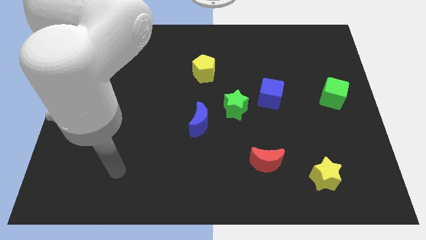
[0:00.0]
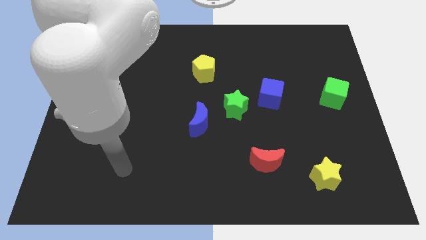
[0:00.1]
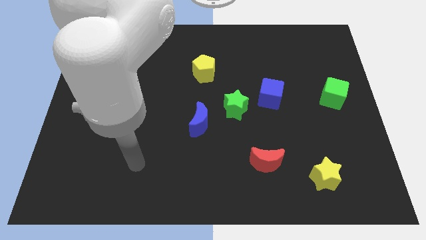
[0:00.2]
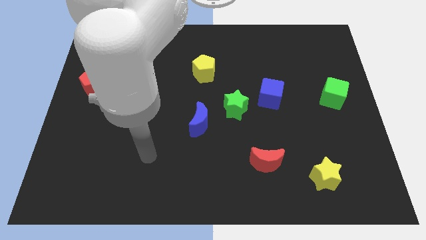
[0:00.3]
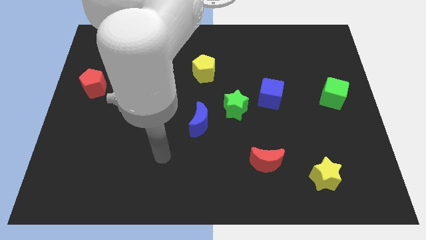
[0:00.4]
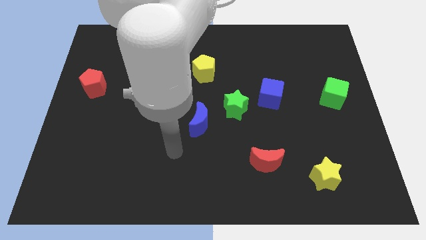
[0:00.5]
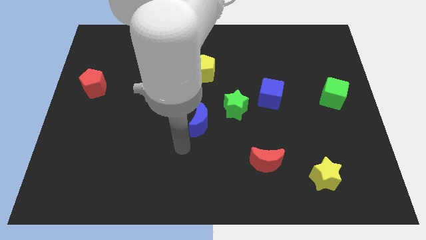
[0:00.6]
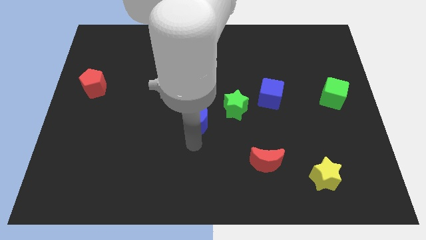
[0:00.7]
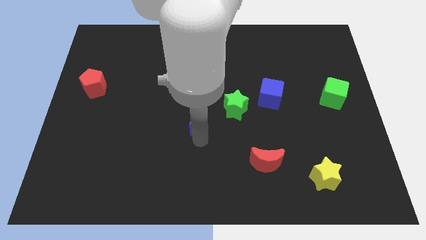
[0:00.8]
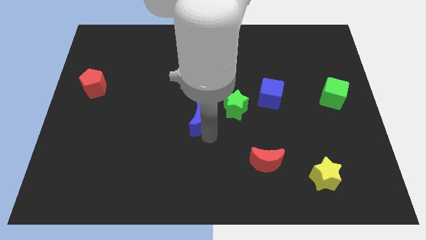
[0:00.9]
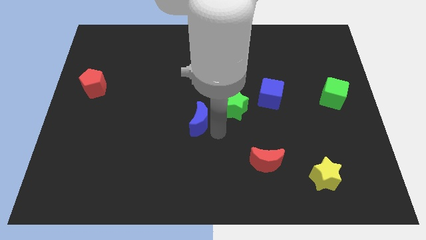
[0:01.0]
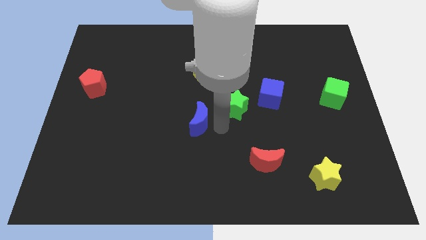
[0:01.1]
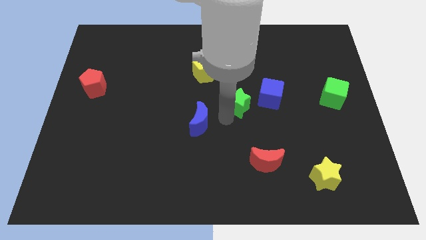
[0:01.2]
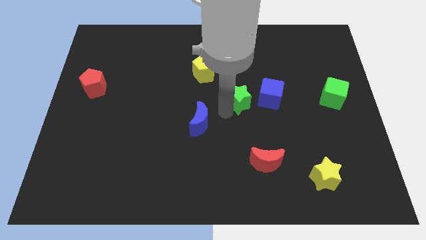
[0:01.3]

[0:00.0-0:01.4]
pull the blue moon apart from the green star

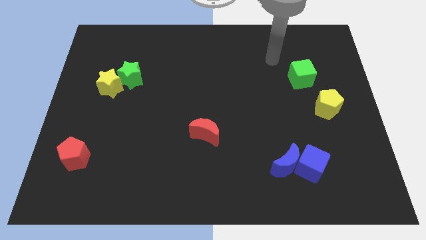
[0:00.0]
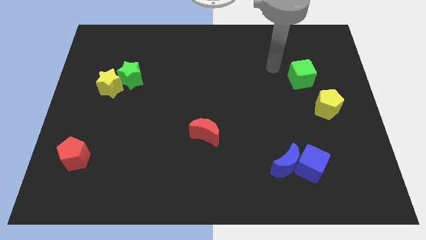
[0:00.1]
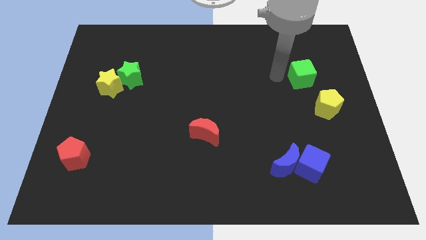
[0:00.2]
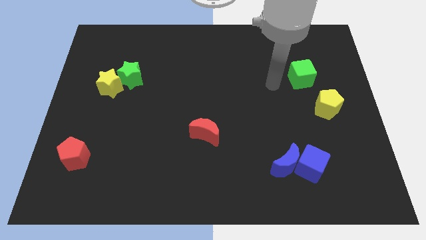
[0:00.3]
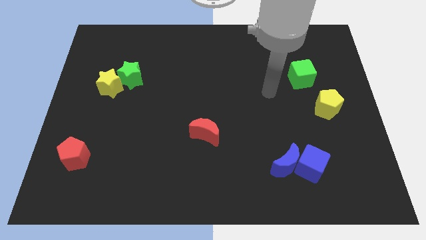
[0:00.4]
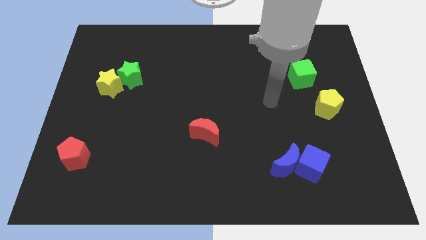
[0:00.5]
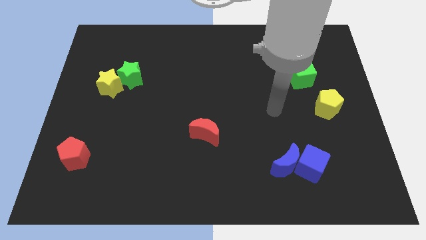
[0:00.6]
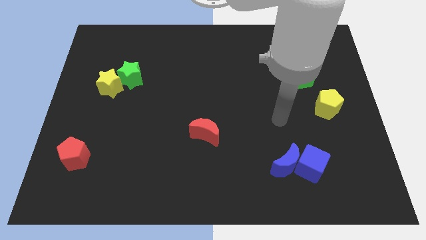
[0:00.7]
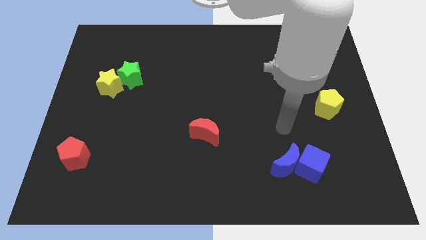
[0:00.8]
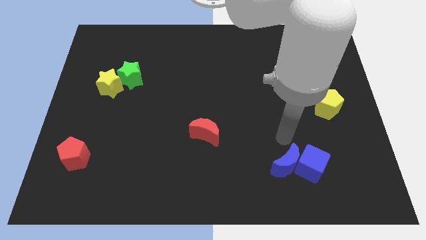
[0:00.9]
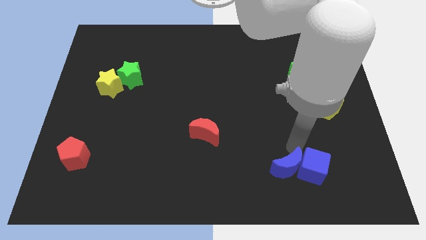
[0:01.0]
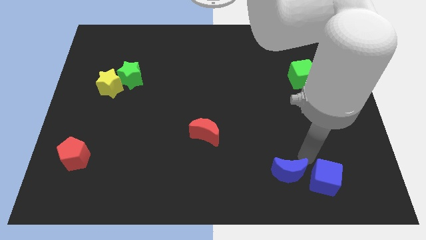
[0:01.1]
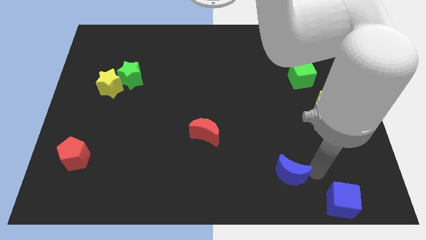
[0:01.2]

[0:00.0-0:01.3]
separate the blue moon from the blue cube

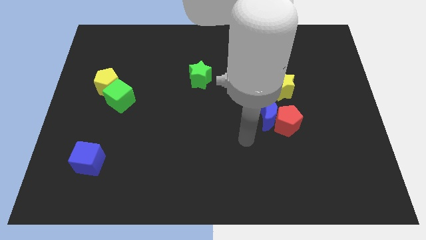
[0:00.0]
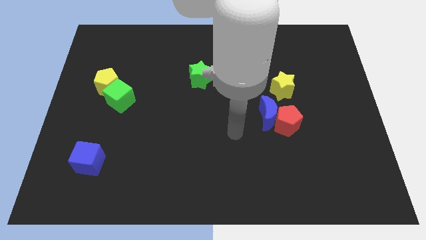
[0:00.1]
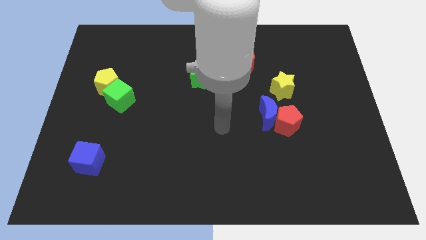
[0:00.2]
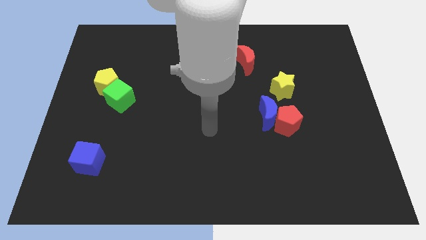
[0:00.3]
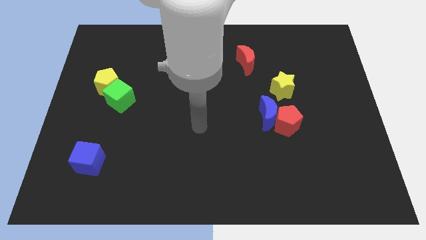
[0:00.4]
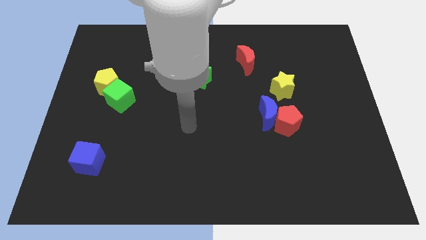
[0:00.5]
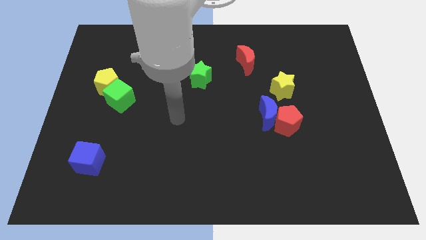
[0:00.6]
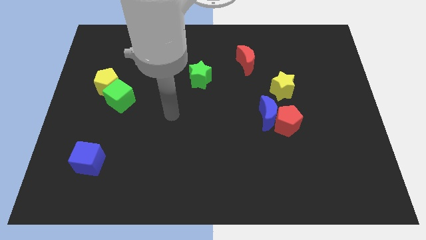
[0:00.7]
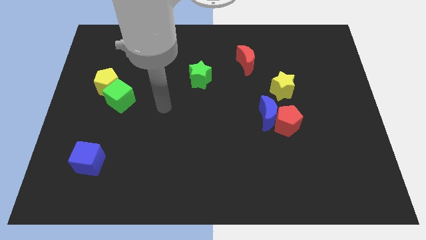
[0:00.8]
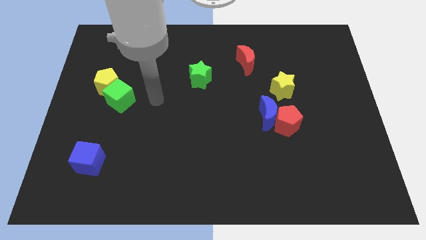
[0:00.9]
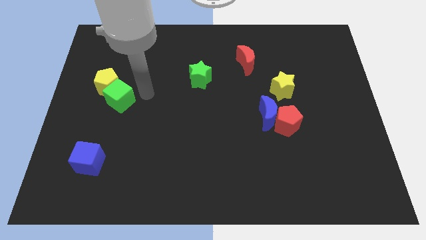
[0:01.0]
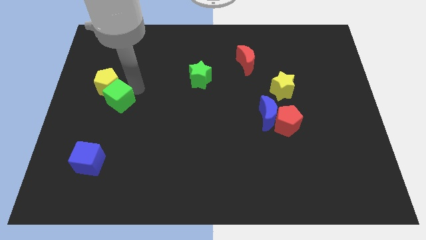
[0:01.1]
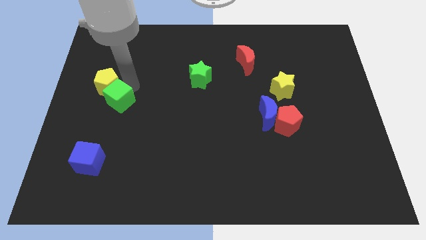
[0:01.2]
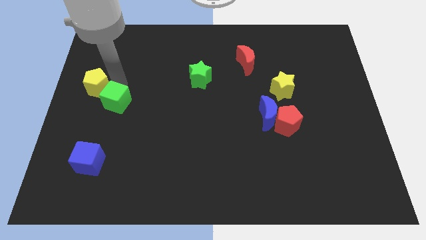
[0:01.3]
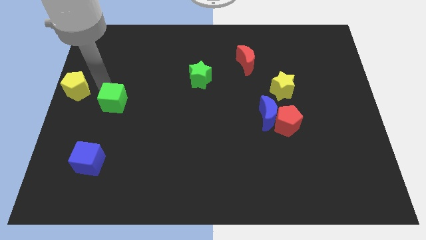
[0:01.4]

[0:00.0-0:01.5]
pull the green cube apart from the yellow pentagon

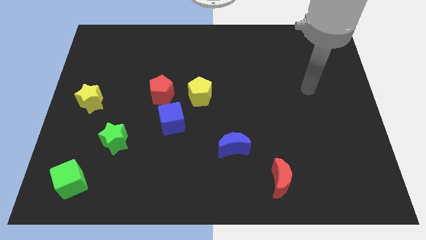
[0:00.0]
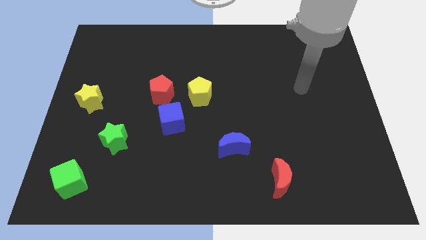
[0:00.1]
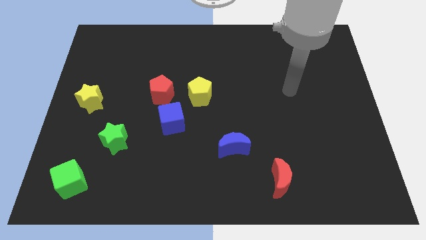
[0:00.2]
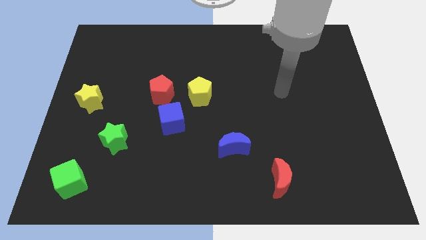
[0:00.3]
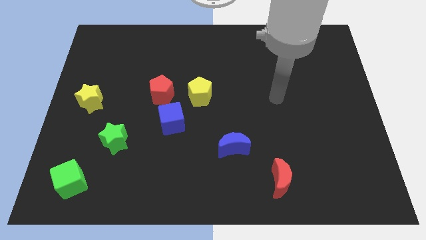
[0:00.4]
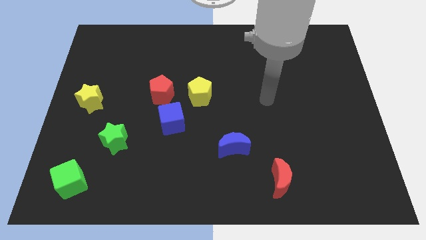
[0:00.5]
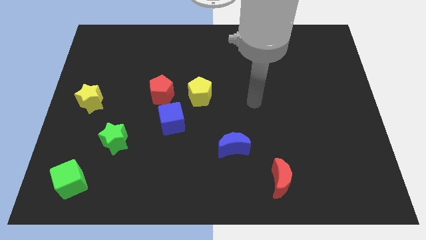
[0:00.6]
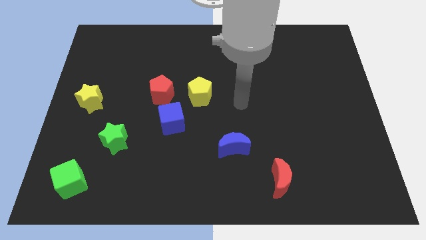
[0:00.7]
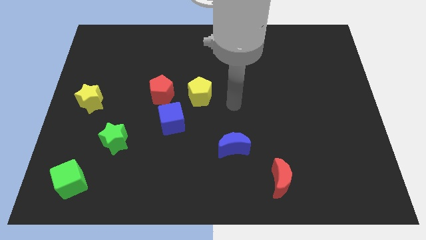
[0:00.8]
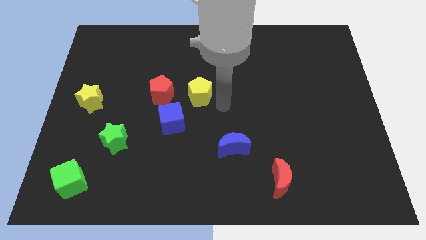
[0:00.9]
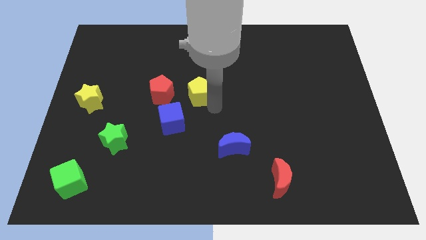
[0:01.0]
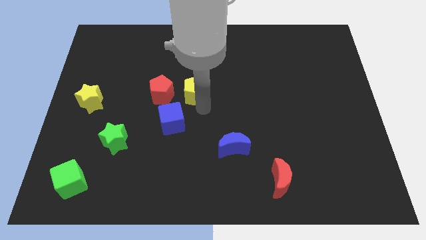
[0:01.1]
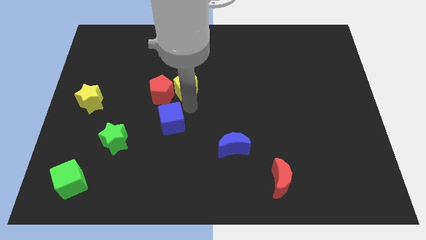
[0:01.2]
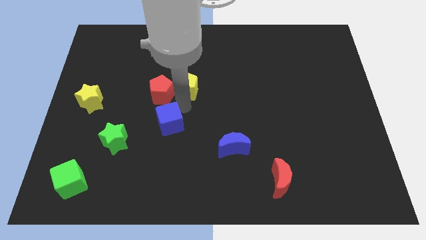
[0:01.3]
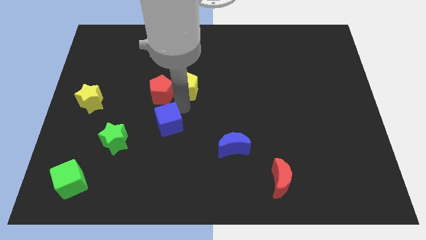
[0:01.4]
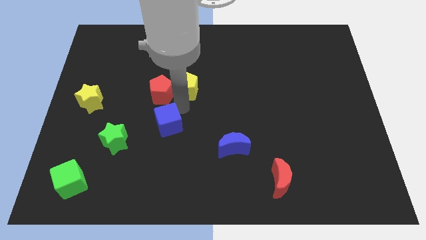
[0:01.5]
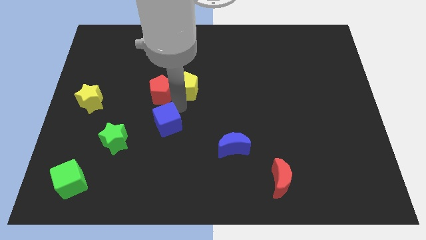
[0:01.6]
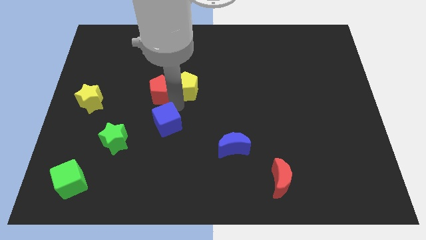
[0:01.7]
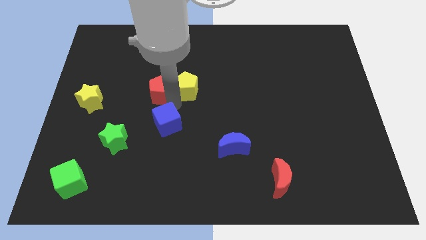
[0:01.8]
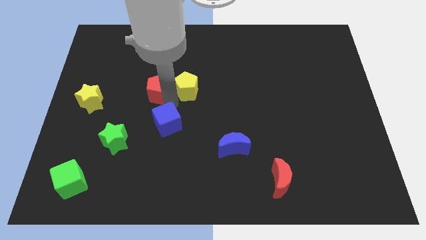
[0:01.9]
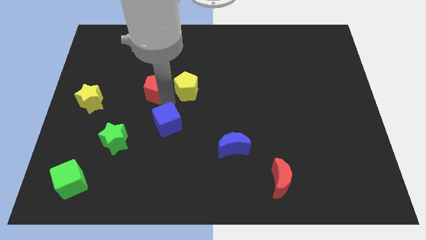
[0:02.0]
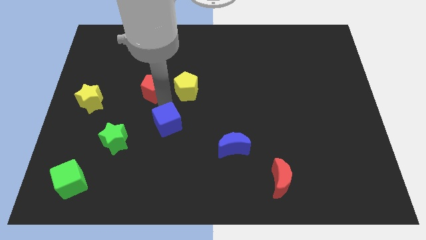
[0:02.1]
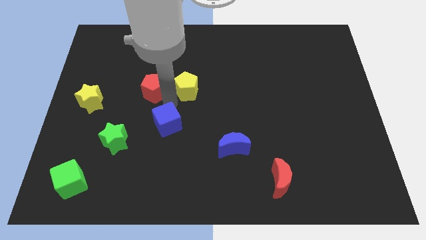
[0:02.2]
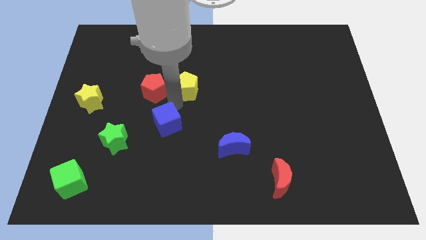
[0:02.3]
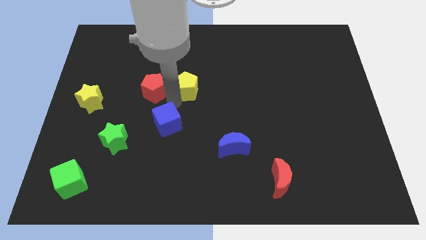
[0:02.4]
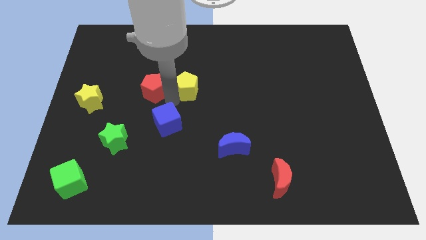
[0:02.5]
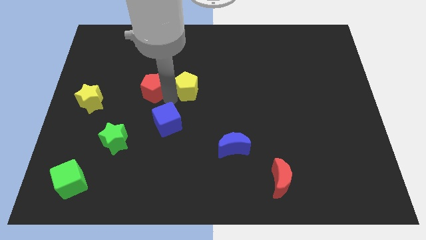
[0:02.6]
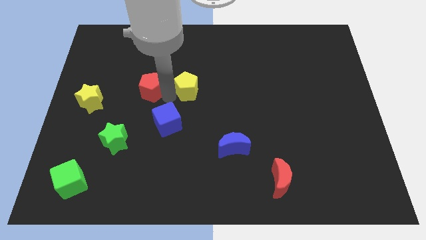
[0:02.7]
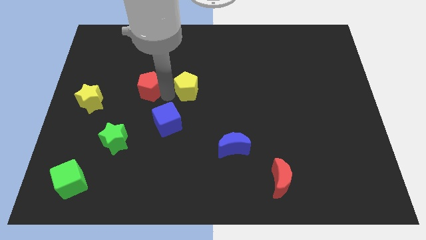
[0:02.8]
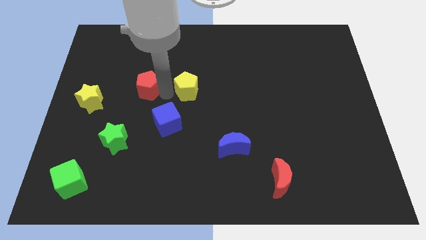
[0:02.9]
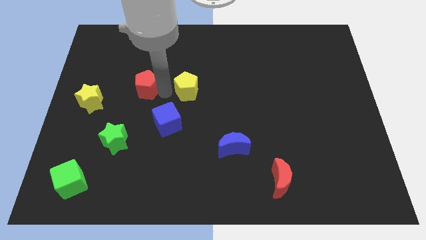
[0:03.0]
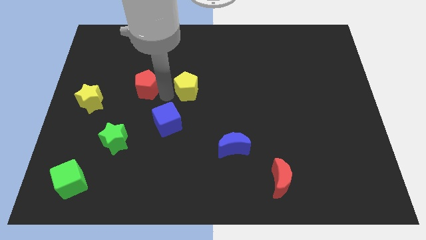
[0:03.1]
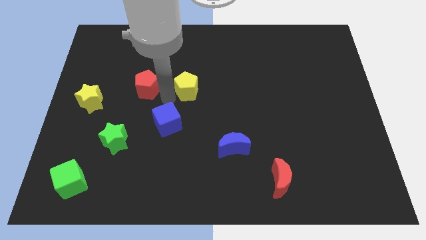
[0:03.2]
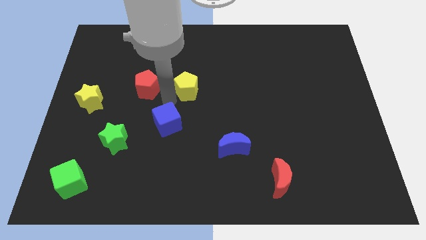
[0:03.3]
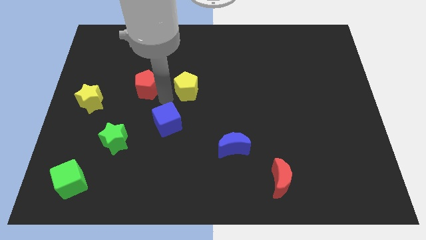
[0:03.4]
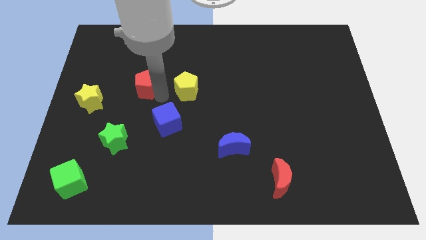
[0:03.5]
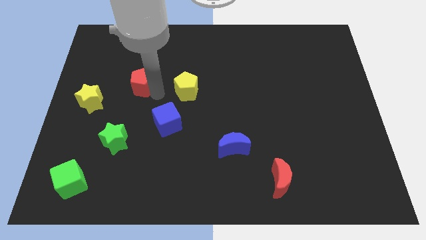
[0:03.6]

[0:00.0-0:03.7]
pull the red pentagon apart from the blue cube and yellow pentagon

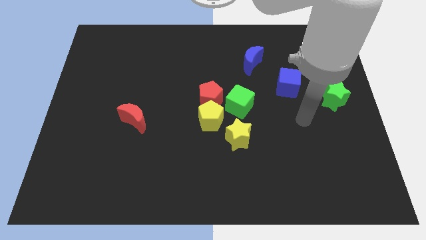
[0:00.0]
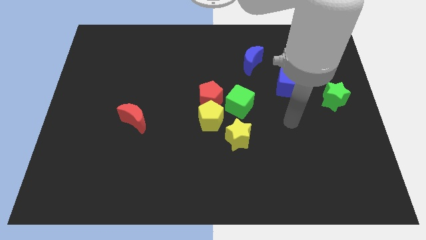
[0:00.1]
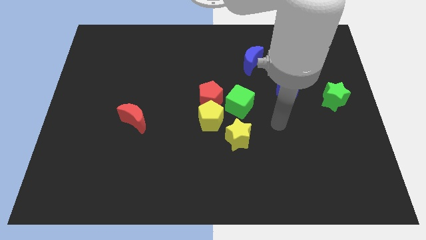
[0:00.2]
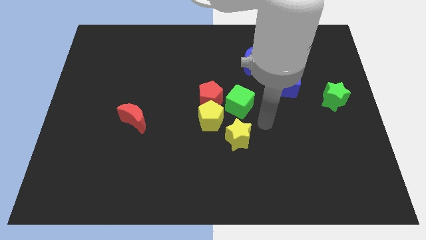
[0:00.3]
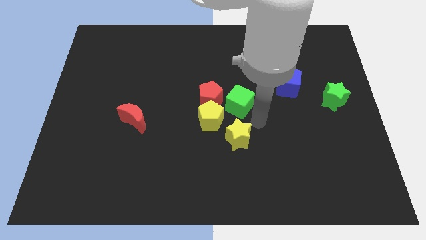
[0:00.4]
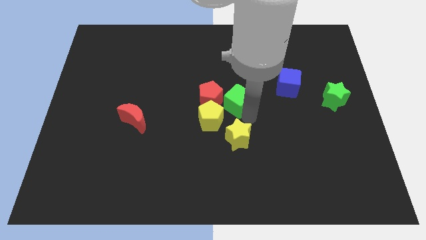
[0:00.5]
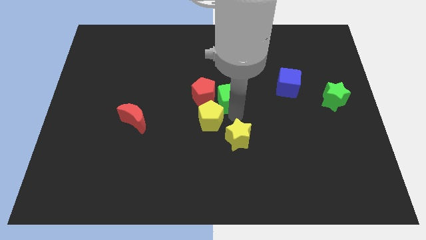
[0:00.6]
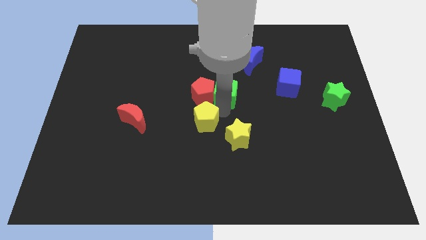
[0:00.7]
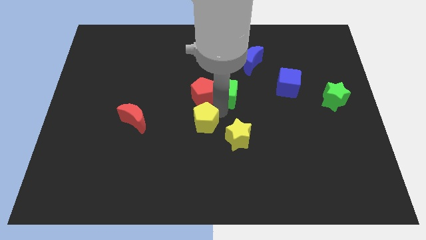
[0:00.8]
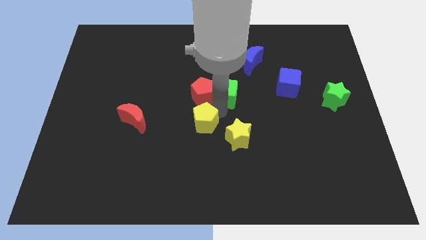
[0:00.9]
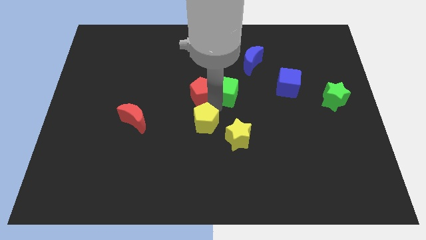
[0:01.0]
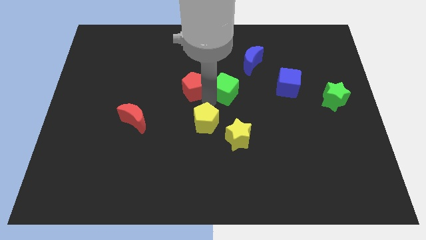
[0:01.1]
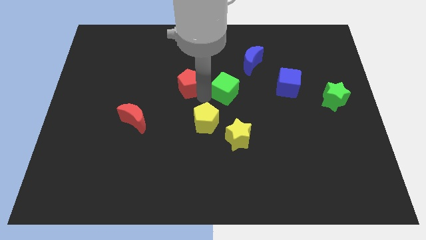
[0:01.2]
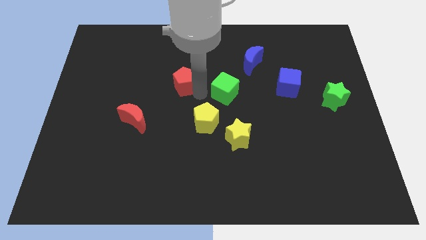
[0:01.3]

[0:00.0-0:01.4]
move the red pentagon away from the yellow pentagon and green cube
